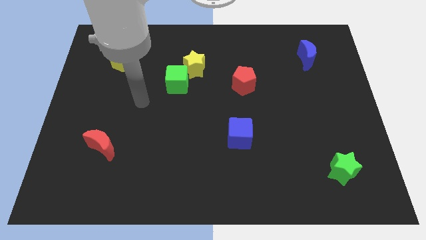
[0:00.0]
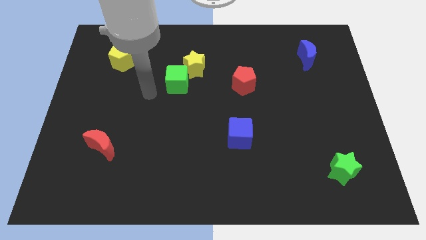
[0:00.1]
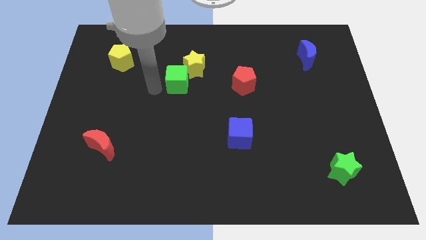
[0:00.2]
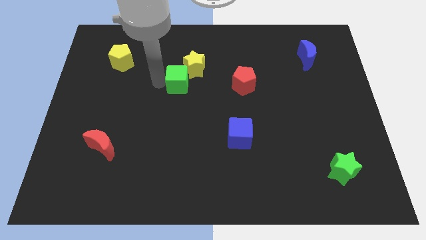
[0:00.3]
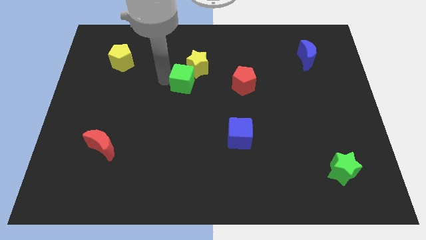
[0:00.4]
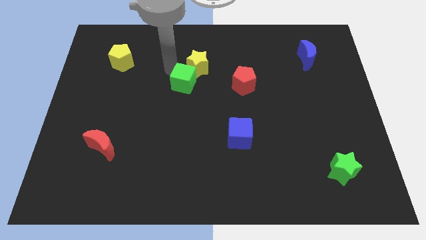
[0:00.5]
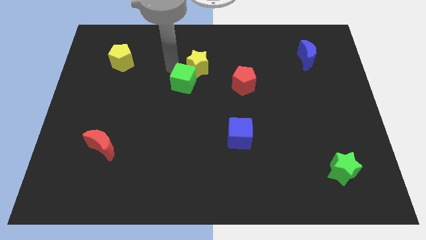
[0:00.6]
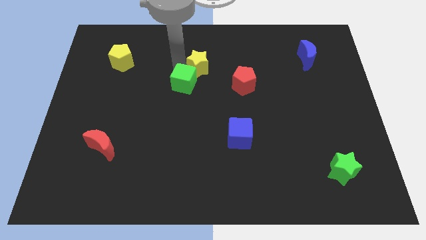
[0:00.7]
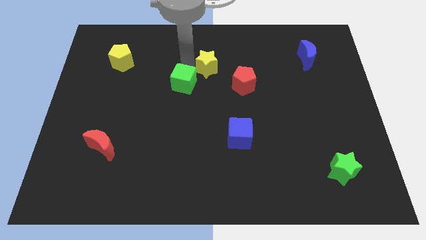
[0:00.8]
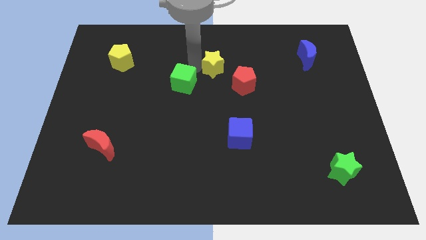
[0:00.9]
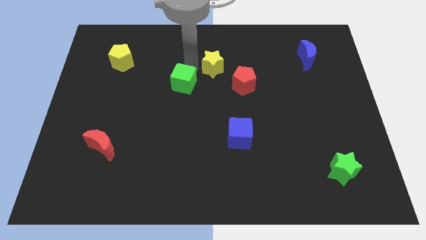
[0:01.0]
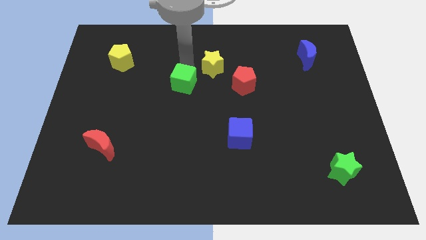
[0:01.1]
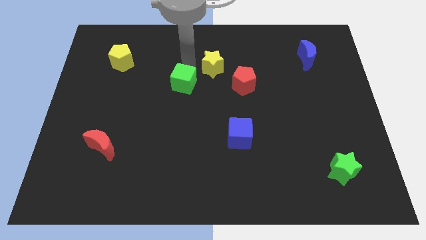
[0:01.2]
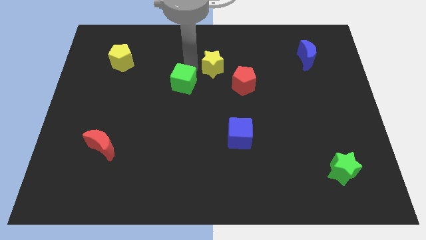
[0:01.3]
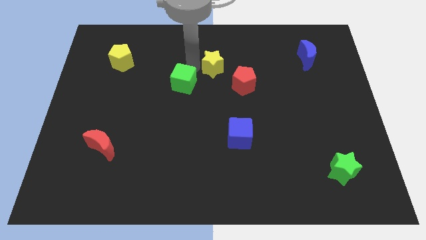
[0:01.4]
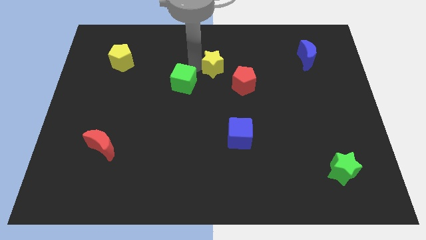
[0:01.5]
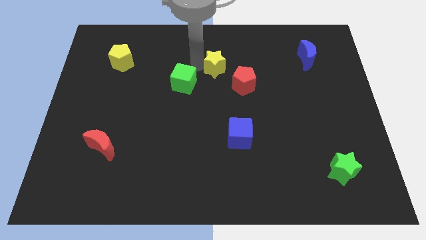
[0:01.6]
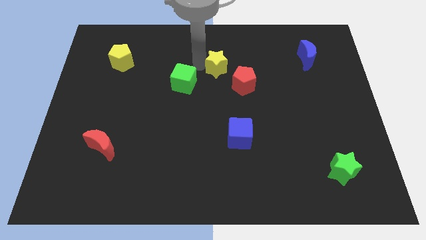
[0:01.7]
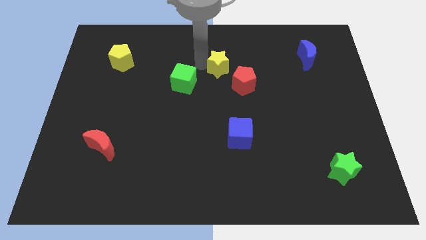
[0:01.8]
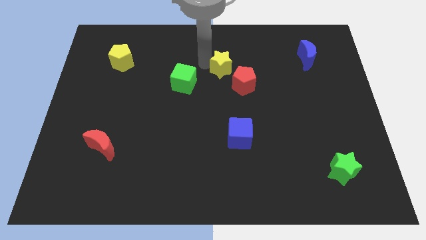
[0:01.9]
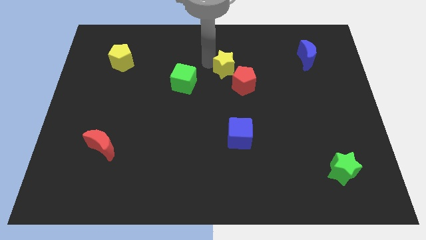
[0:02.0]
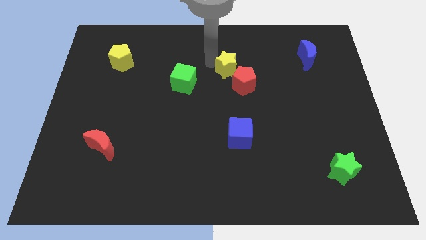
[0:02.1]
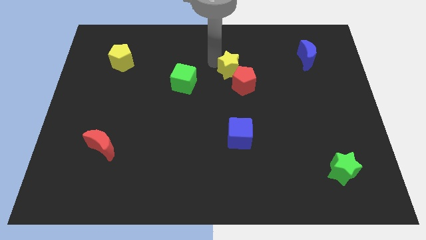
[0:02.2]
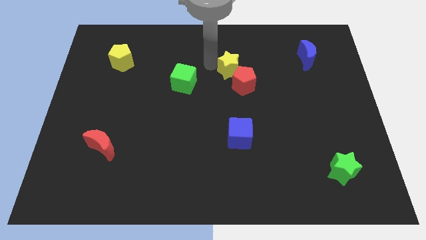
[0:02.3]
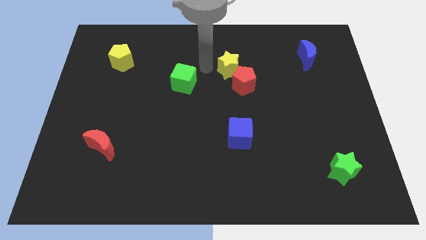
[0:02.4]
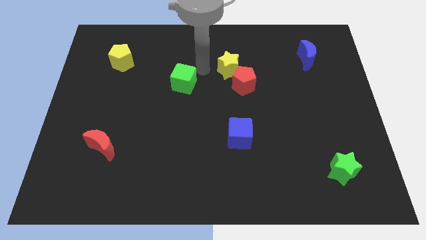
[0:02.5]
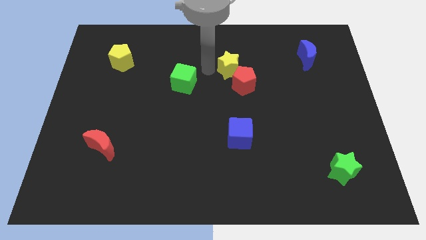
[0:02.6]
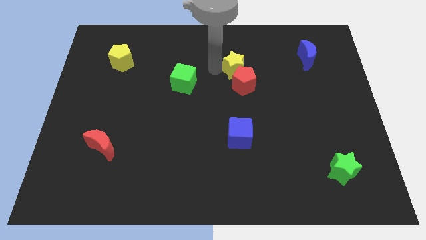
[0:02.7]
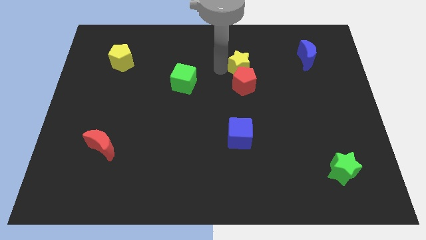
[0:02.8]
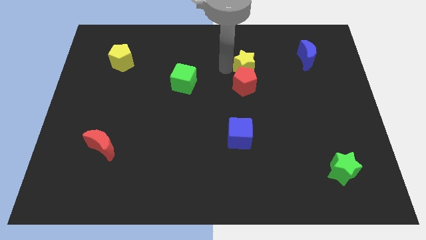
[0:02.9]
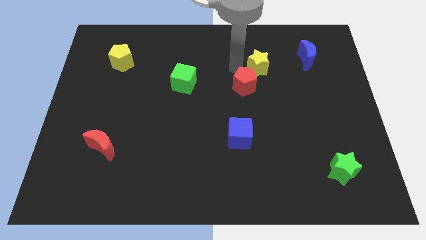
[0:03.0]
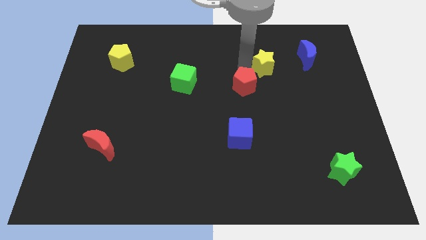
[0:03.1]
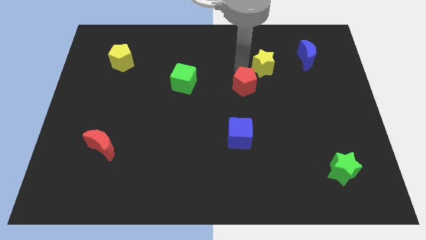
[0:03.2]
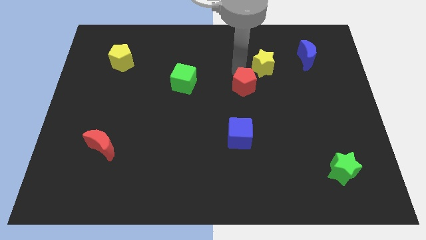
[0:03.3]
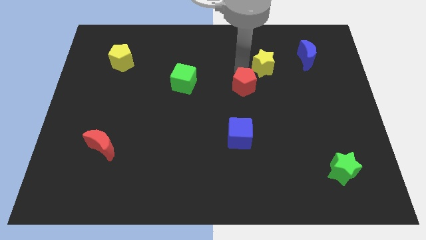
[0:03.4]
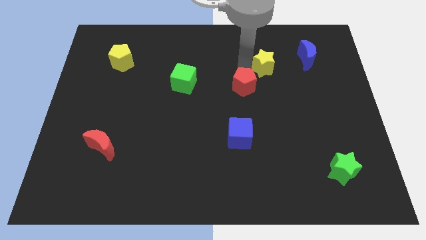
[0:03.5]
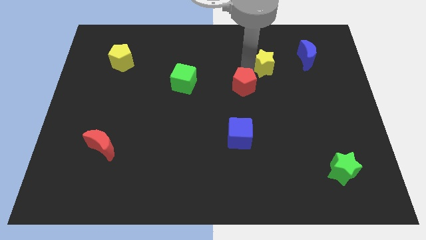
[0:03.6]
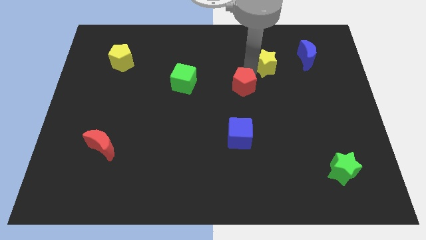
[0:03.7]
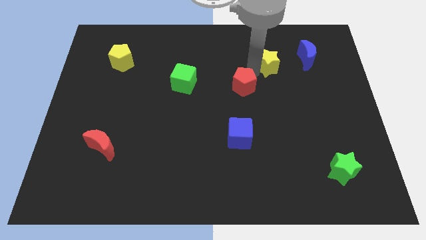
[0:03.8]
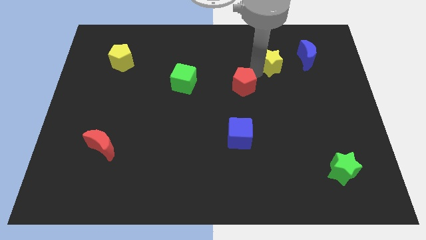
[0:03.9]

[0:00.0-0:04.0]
slide the yellow star to the right

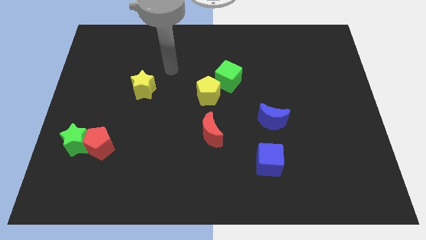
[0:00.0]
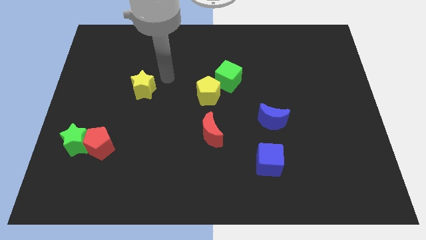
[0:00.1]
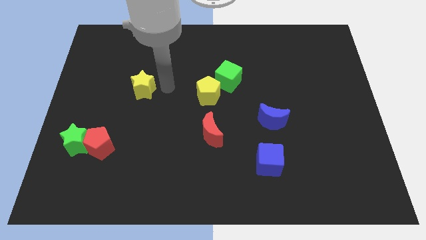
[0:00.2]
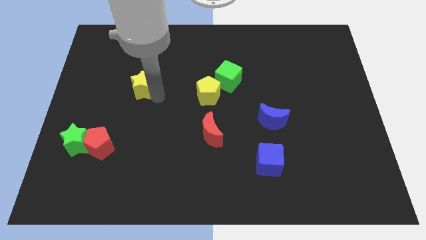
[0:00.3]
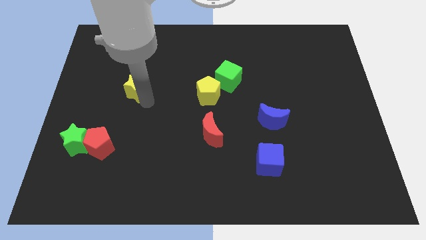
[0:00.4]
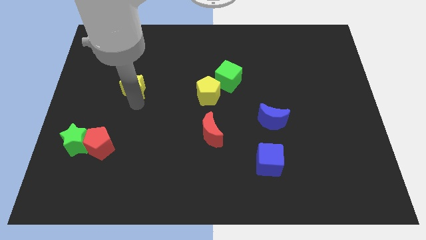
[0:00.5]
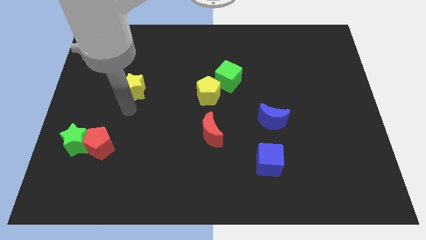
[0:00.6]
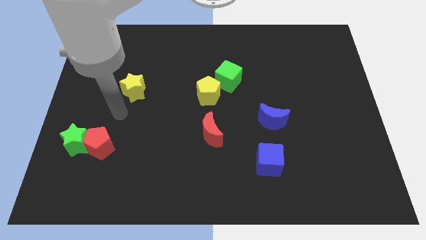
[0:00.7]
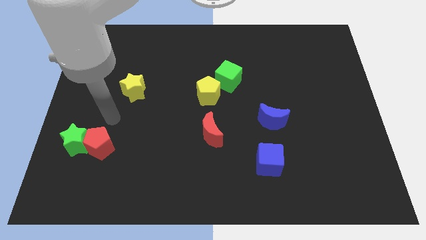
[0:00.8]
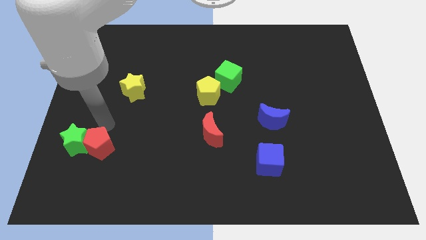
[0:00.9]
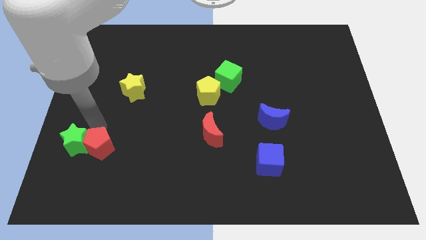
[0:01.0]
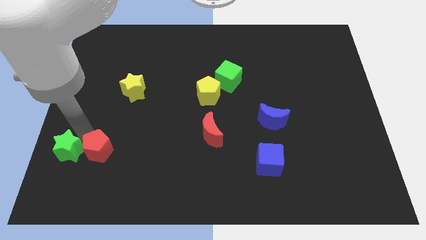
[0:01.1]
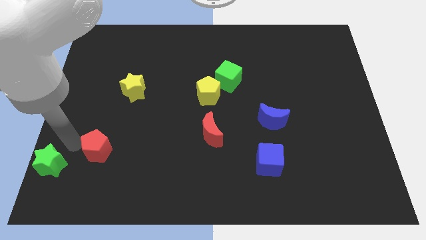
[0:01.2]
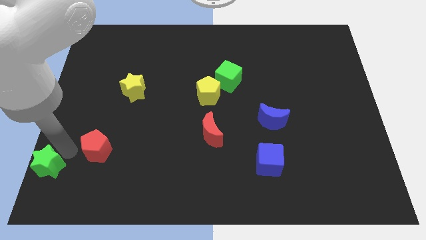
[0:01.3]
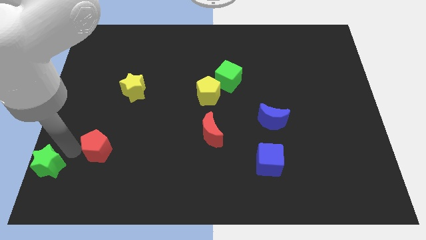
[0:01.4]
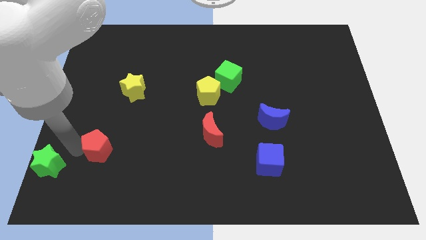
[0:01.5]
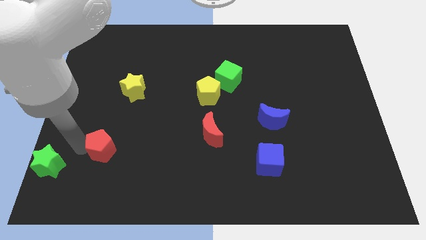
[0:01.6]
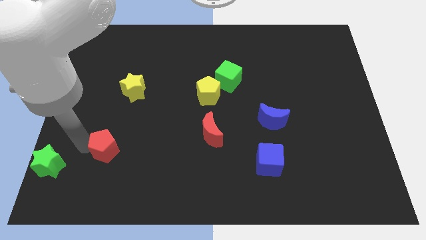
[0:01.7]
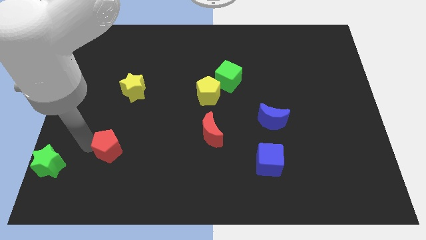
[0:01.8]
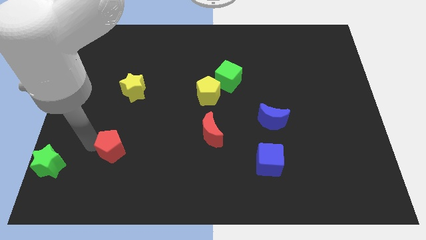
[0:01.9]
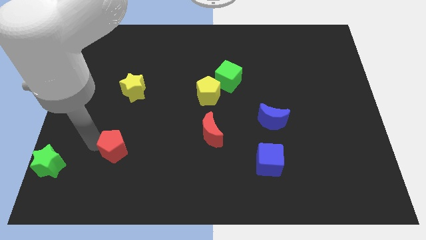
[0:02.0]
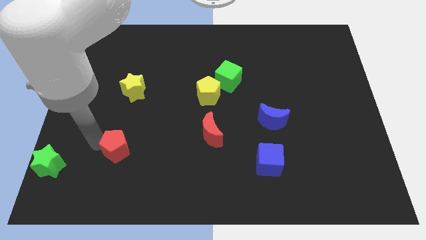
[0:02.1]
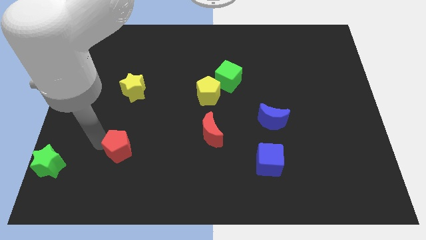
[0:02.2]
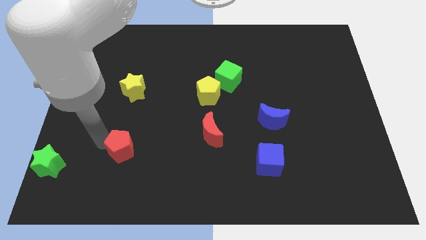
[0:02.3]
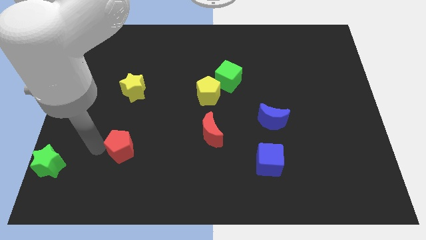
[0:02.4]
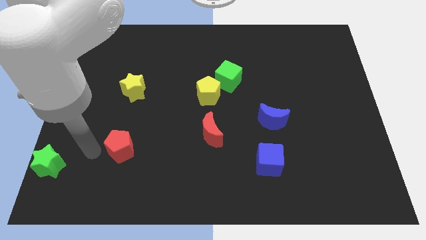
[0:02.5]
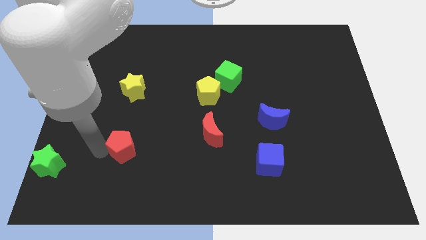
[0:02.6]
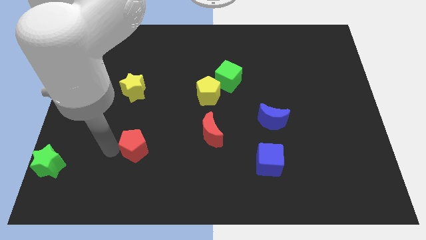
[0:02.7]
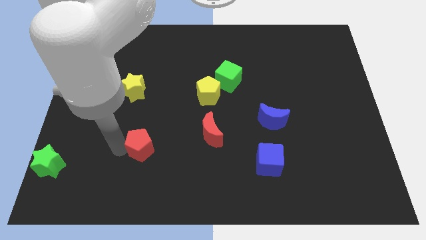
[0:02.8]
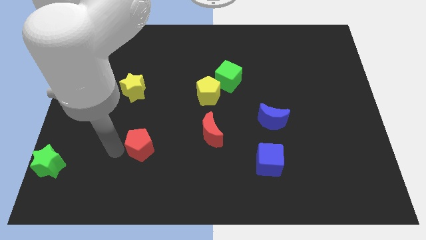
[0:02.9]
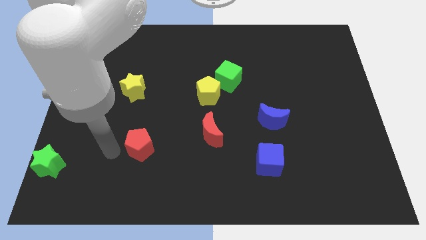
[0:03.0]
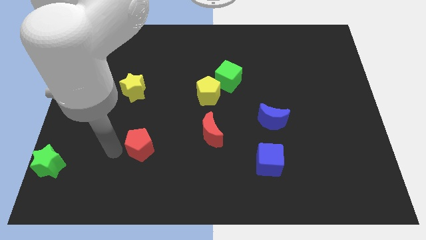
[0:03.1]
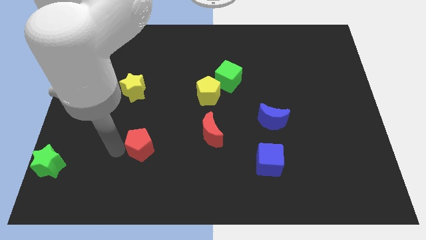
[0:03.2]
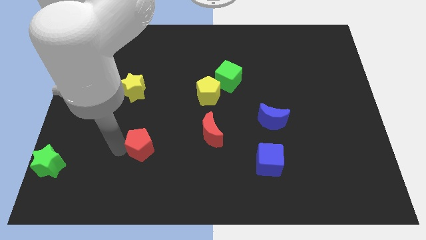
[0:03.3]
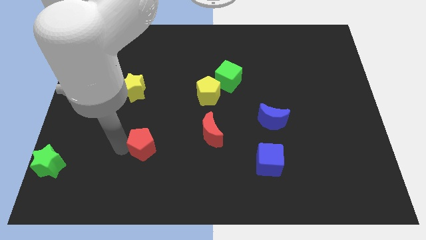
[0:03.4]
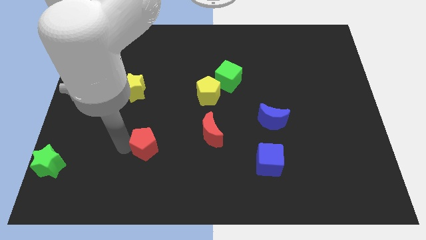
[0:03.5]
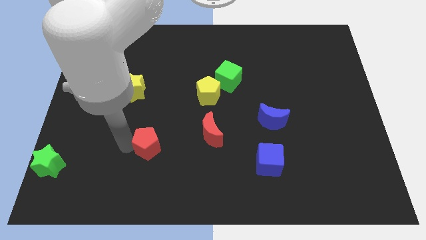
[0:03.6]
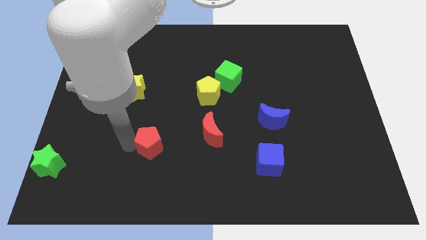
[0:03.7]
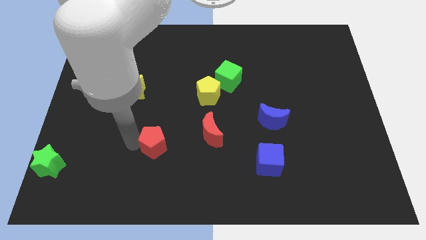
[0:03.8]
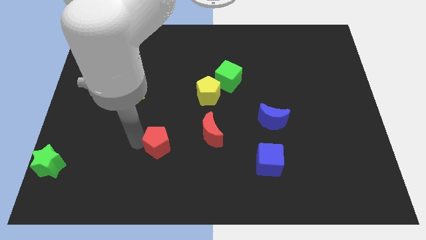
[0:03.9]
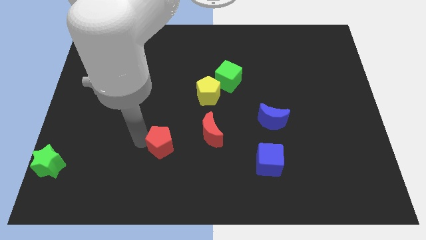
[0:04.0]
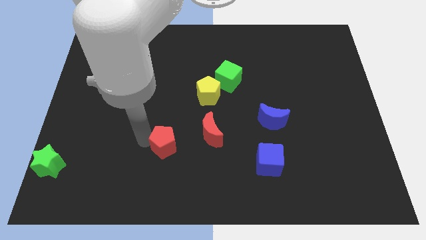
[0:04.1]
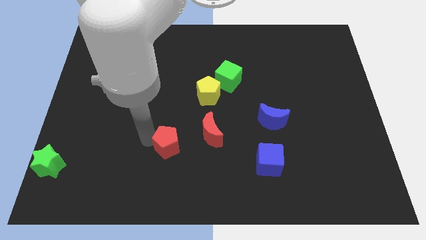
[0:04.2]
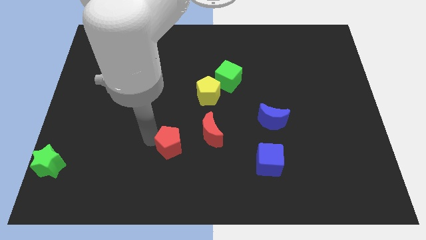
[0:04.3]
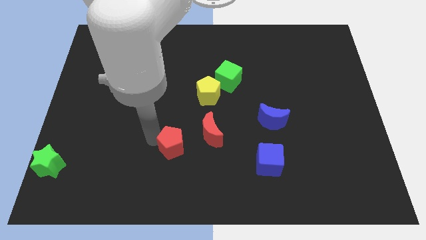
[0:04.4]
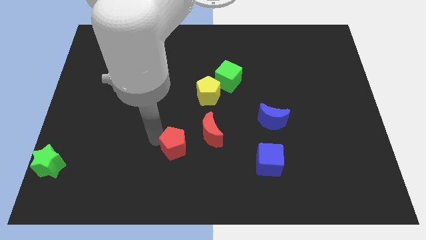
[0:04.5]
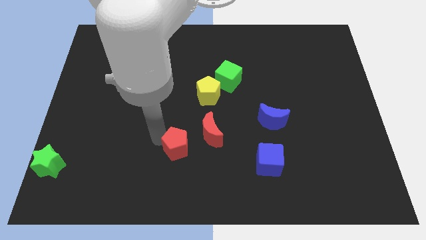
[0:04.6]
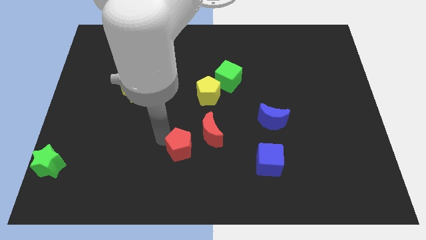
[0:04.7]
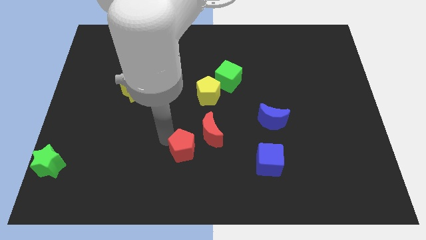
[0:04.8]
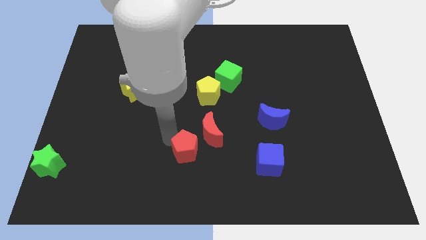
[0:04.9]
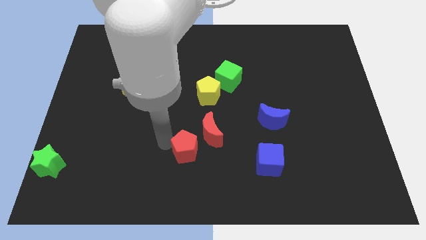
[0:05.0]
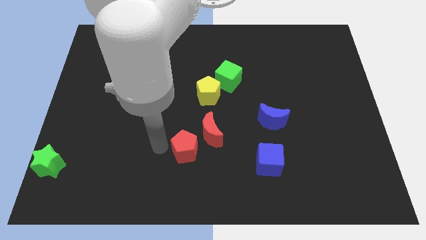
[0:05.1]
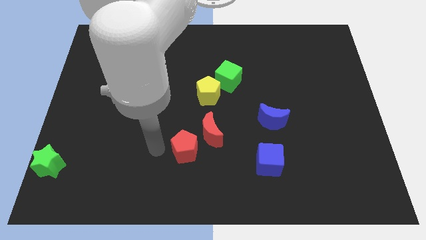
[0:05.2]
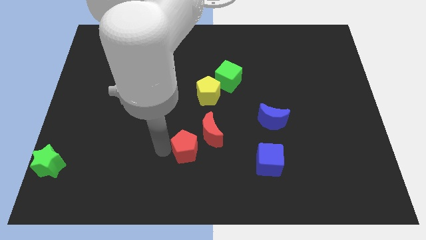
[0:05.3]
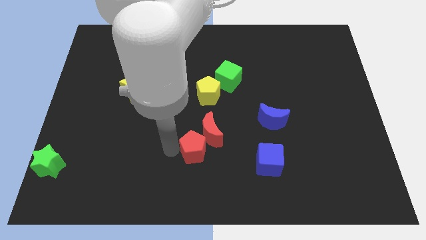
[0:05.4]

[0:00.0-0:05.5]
move the red pentagon to the right
